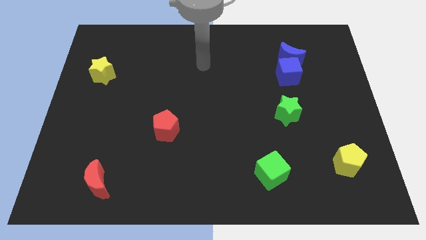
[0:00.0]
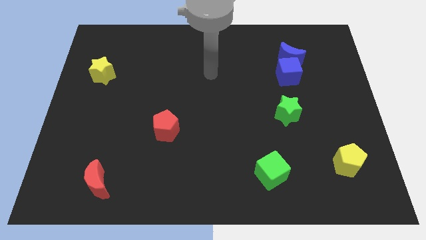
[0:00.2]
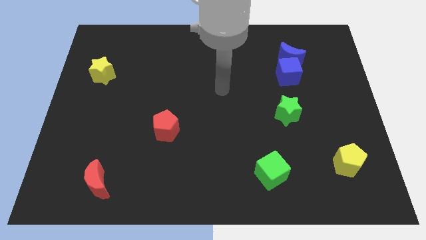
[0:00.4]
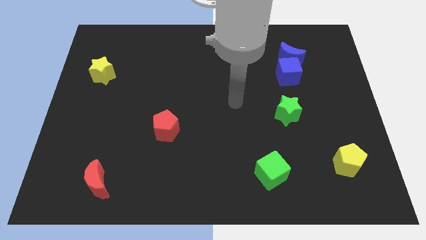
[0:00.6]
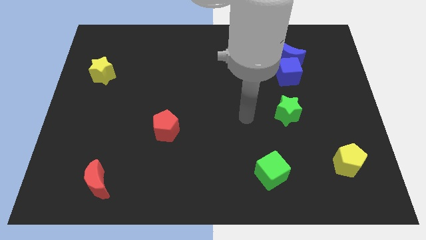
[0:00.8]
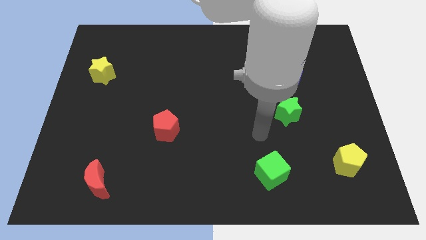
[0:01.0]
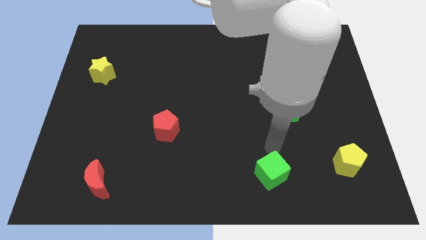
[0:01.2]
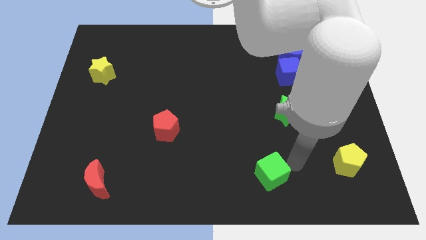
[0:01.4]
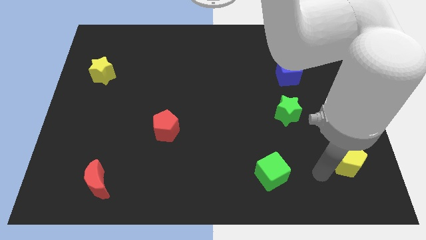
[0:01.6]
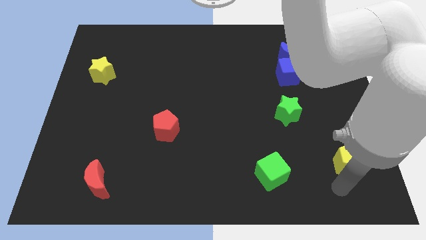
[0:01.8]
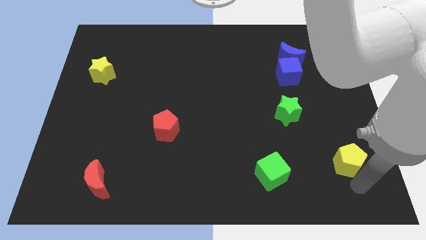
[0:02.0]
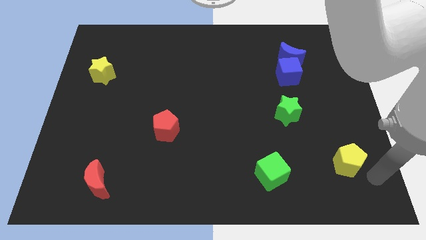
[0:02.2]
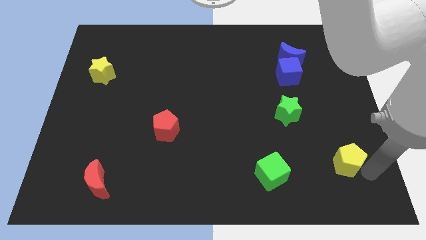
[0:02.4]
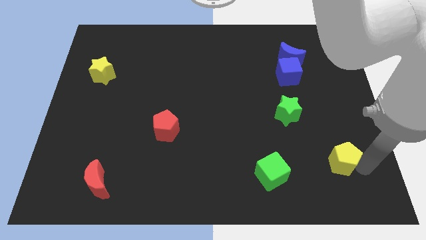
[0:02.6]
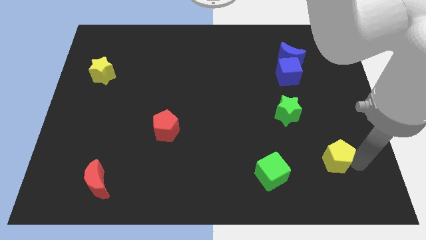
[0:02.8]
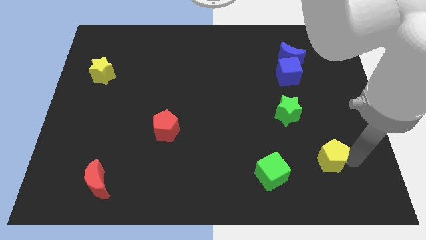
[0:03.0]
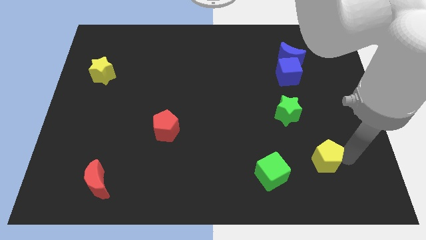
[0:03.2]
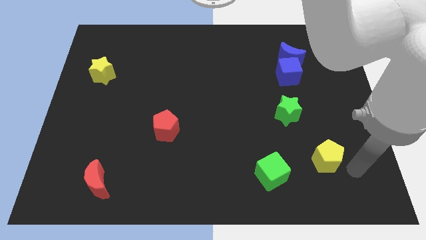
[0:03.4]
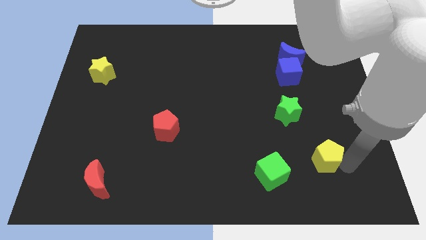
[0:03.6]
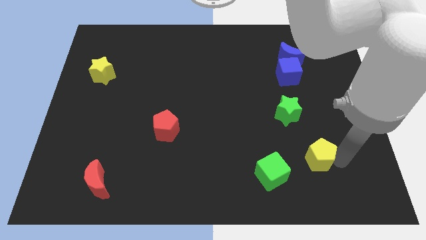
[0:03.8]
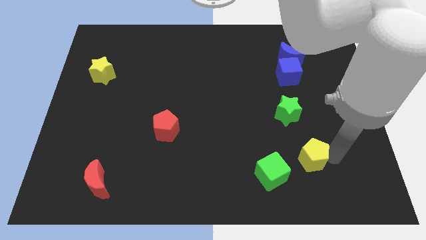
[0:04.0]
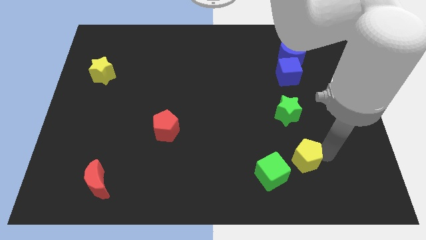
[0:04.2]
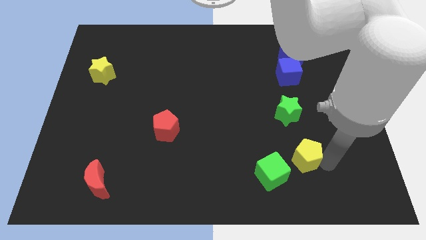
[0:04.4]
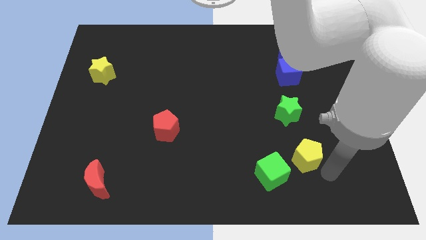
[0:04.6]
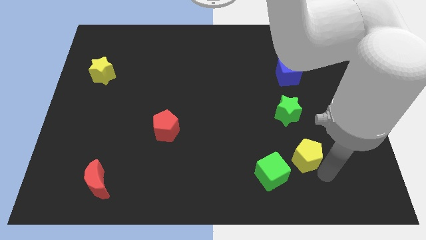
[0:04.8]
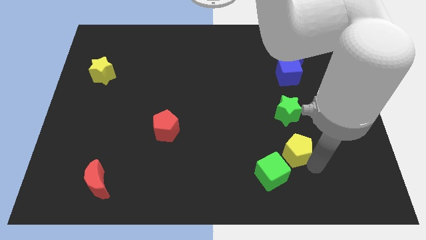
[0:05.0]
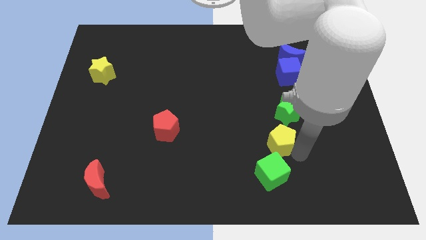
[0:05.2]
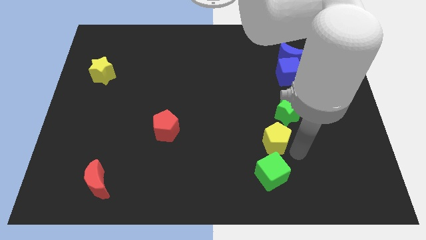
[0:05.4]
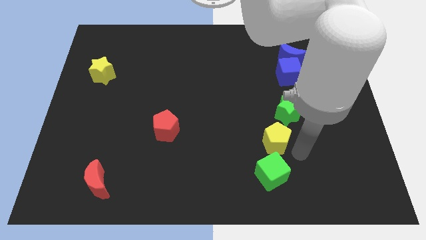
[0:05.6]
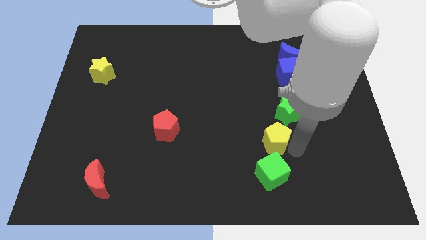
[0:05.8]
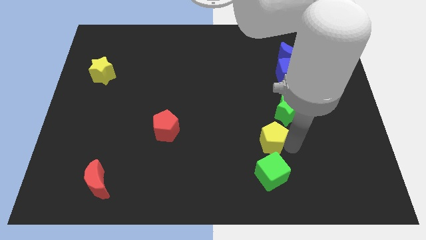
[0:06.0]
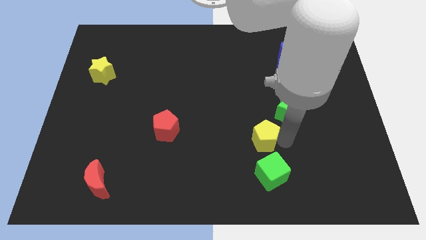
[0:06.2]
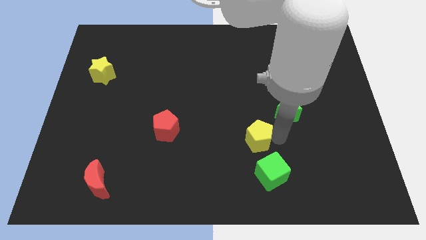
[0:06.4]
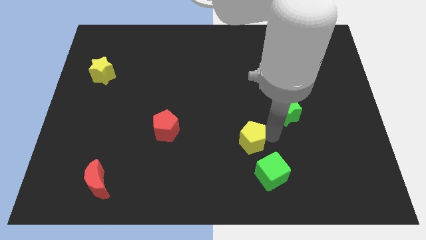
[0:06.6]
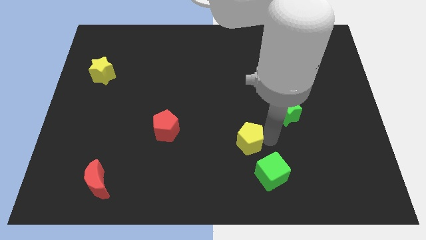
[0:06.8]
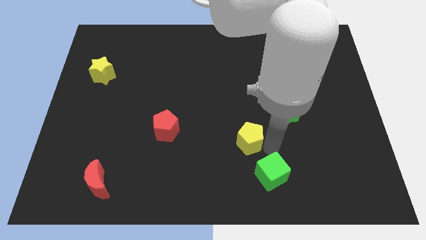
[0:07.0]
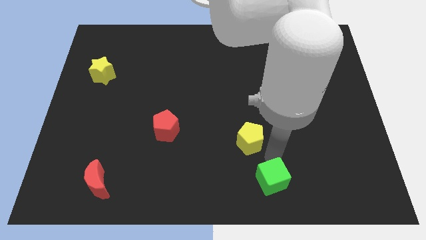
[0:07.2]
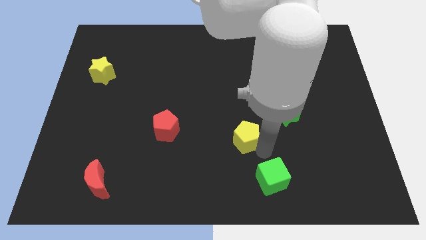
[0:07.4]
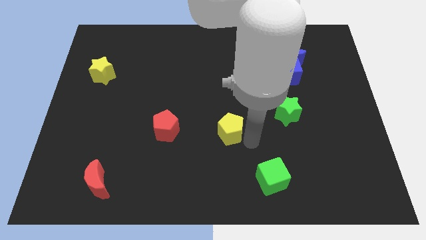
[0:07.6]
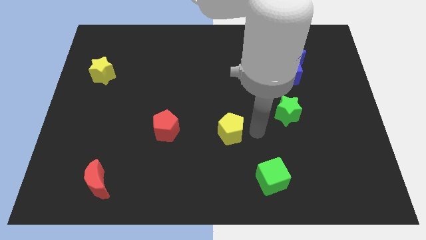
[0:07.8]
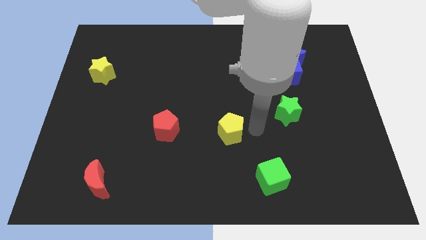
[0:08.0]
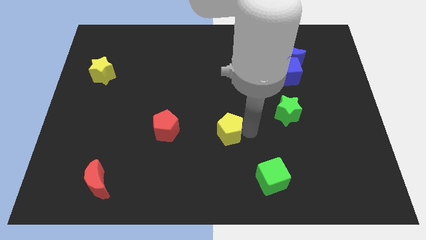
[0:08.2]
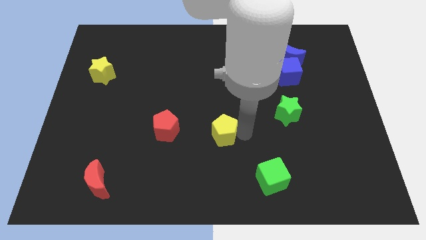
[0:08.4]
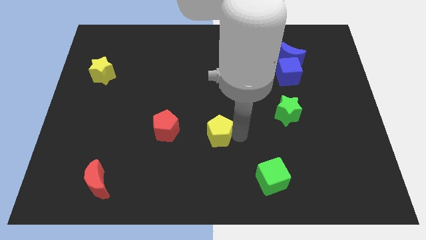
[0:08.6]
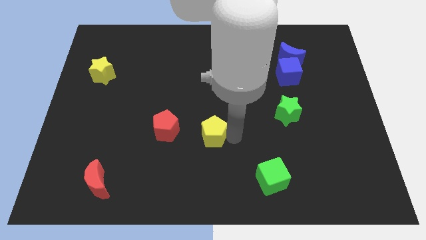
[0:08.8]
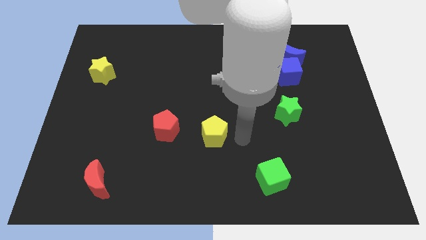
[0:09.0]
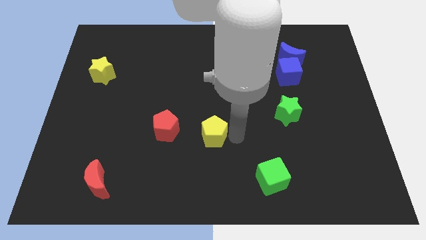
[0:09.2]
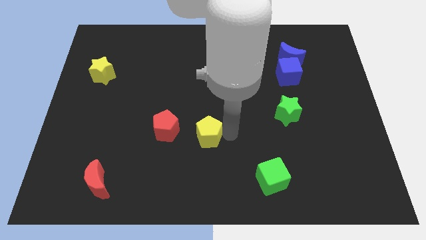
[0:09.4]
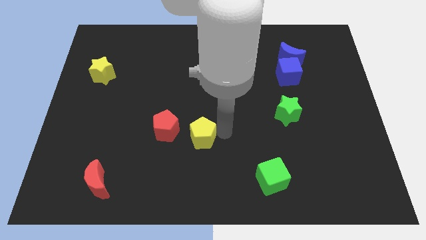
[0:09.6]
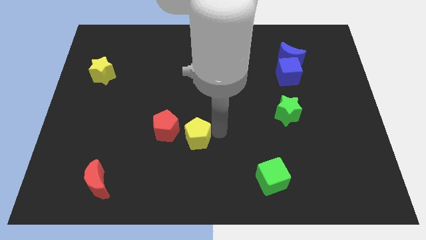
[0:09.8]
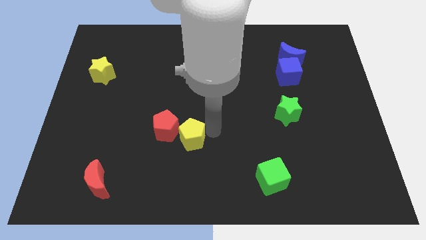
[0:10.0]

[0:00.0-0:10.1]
push the yellow pentagon towards the red pentagon

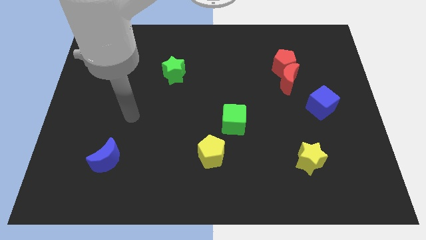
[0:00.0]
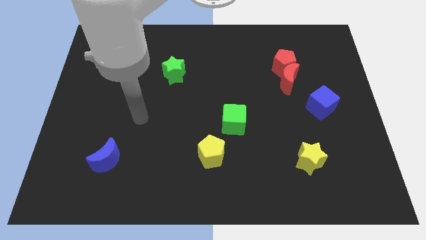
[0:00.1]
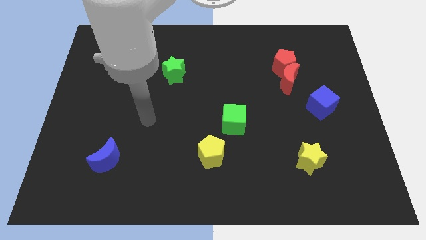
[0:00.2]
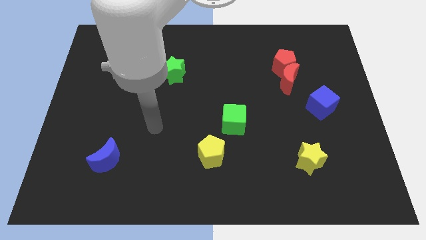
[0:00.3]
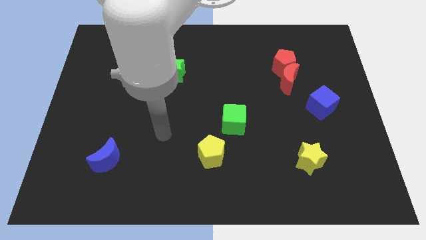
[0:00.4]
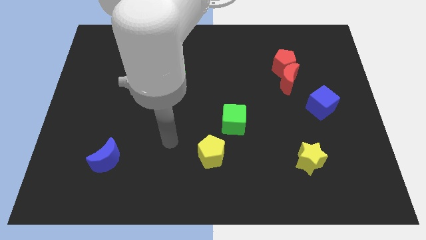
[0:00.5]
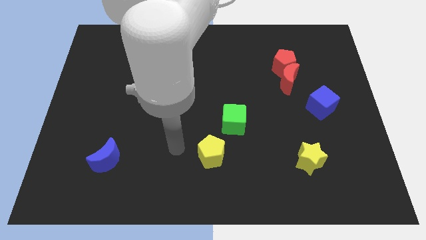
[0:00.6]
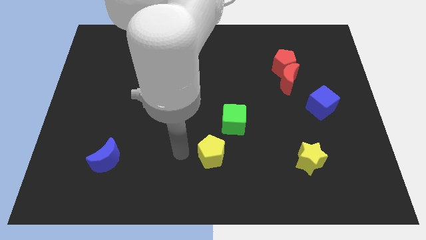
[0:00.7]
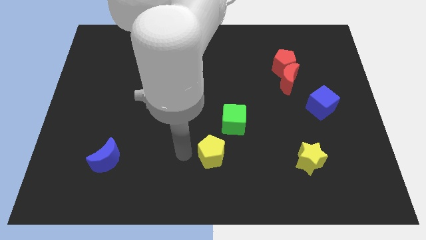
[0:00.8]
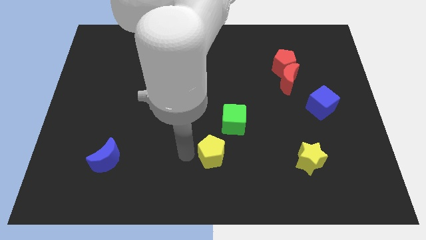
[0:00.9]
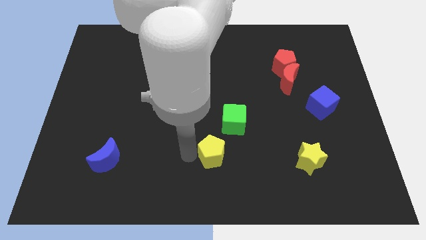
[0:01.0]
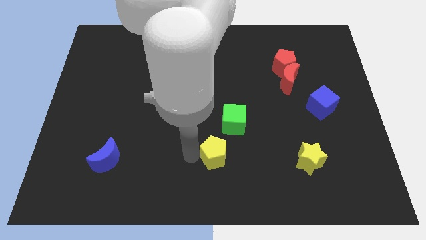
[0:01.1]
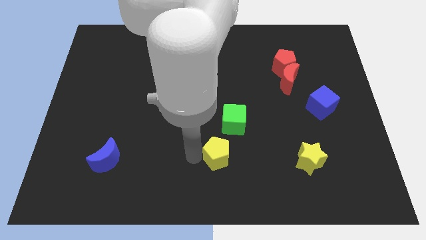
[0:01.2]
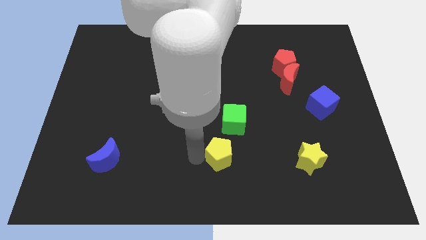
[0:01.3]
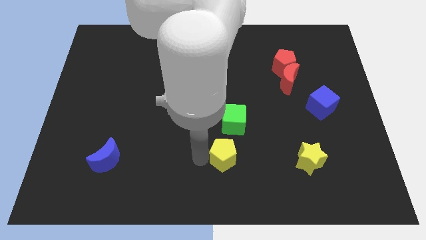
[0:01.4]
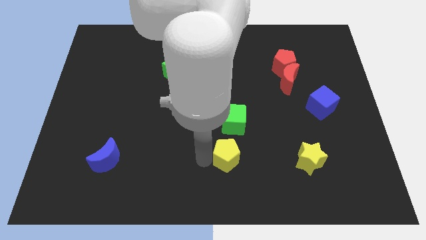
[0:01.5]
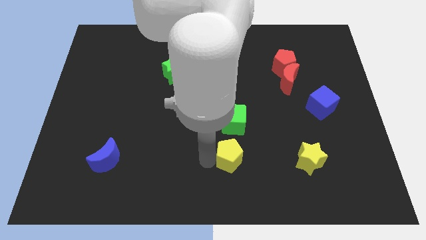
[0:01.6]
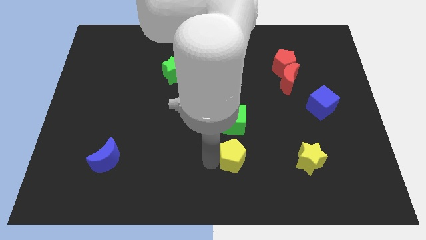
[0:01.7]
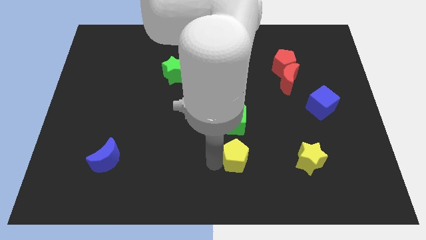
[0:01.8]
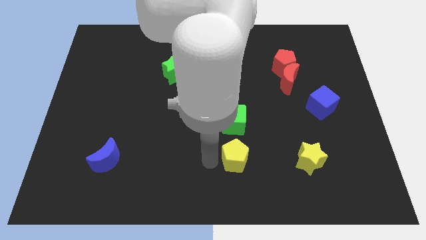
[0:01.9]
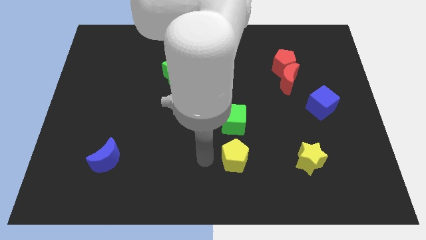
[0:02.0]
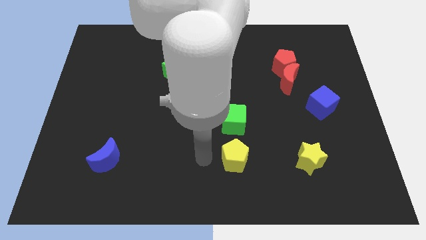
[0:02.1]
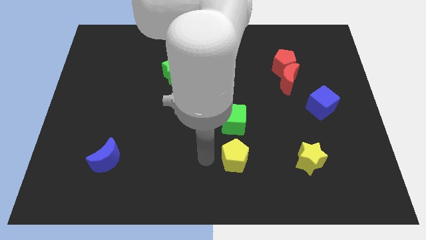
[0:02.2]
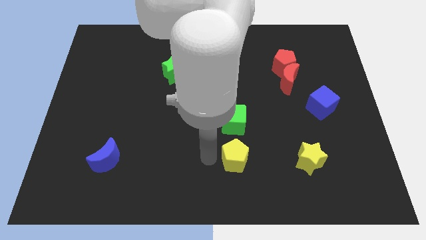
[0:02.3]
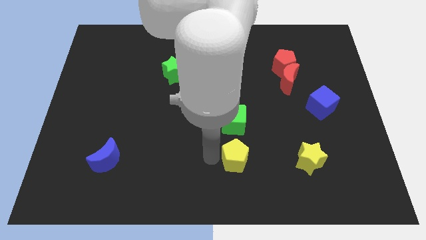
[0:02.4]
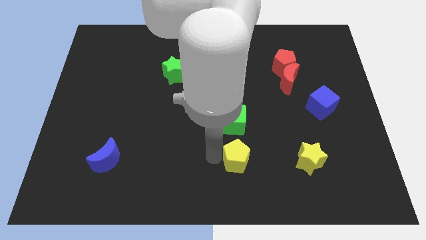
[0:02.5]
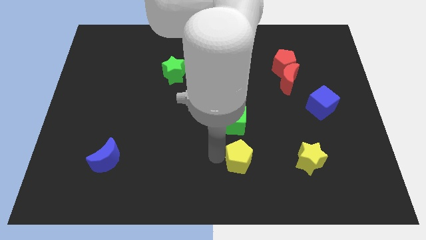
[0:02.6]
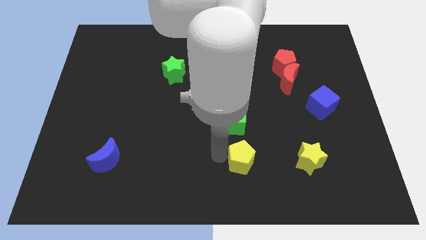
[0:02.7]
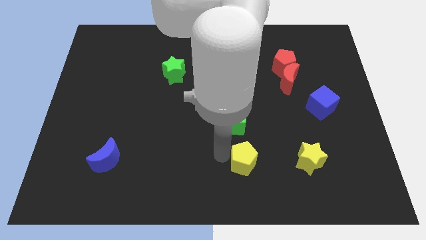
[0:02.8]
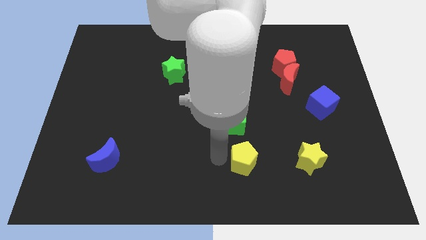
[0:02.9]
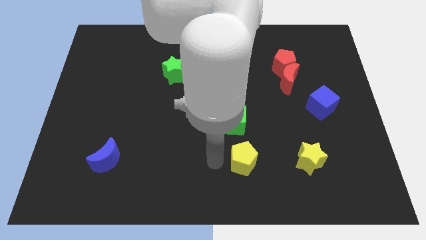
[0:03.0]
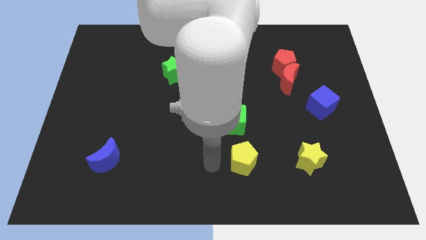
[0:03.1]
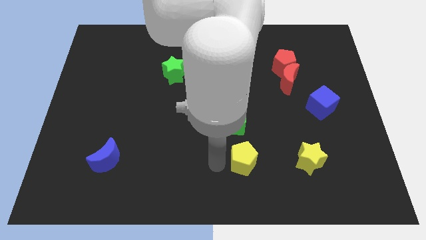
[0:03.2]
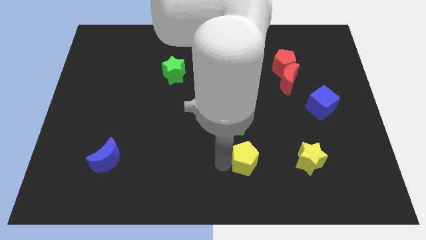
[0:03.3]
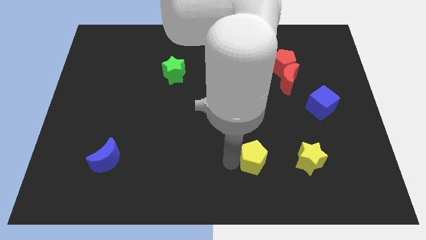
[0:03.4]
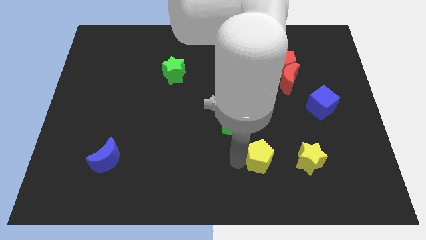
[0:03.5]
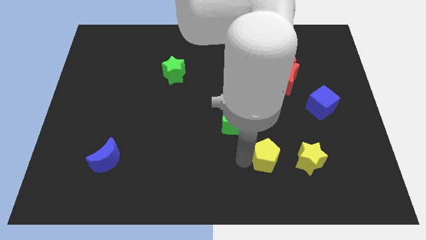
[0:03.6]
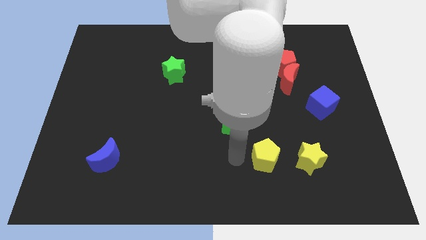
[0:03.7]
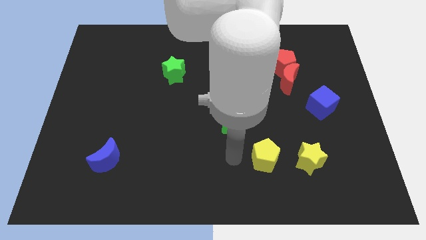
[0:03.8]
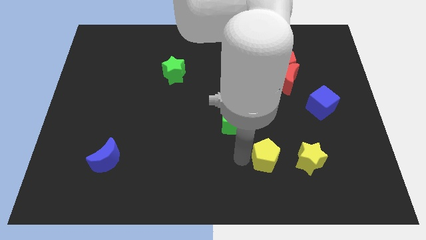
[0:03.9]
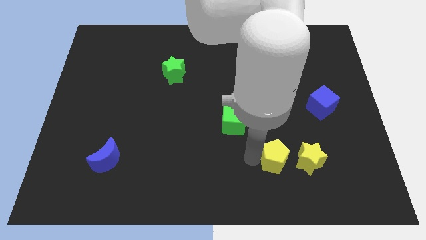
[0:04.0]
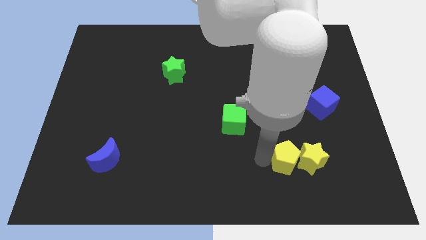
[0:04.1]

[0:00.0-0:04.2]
put the yellow pentagon towards the yellow star
